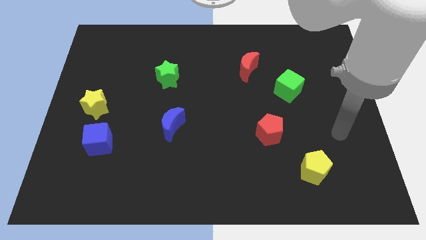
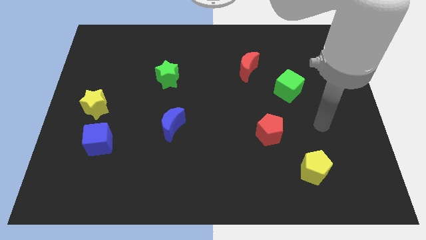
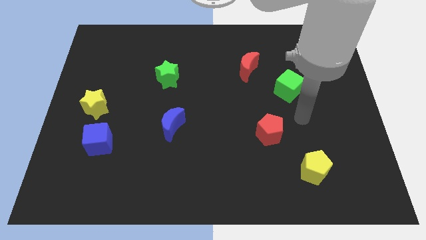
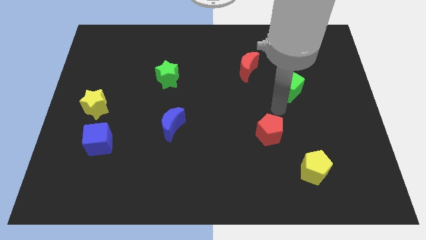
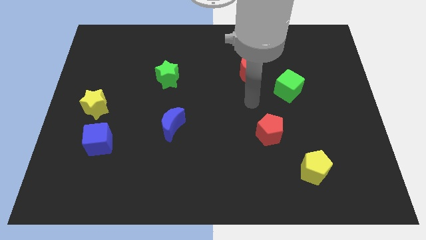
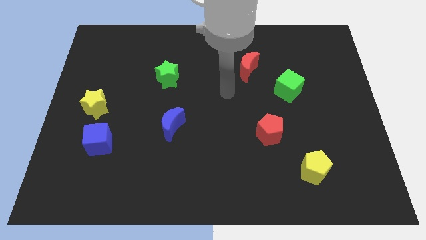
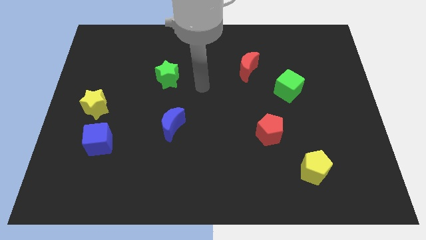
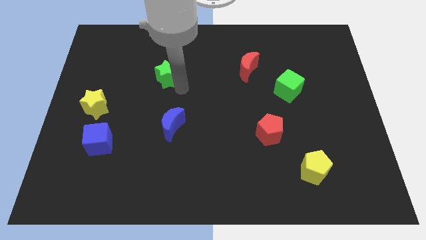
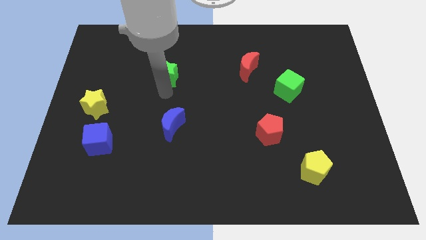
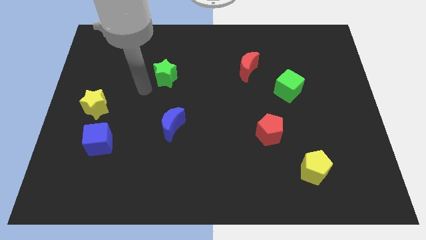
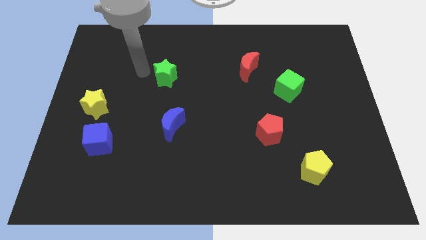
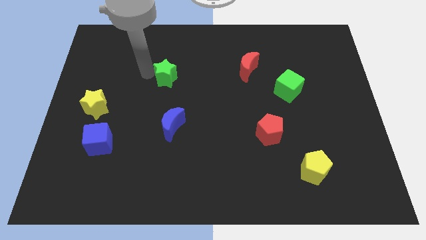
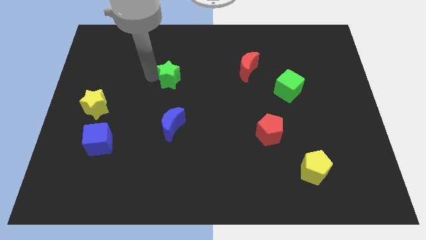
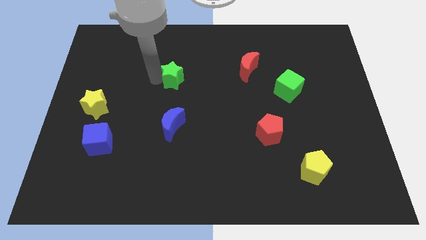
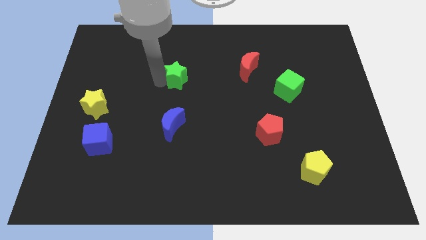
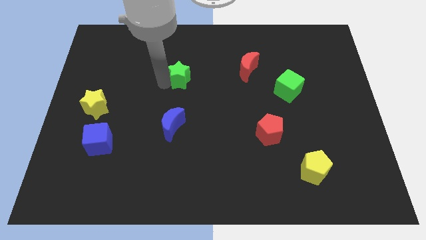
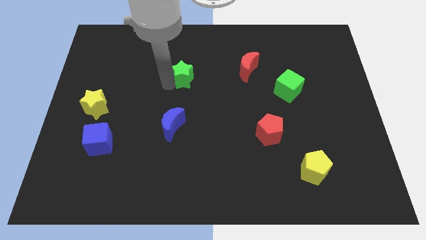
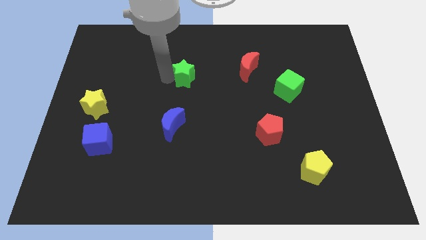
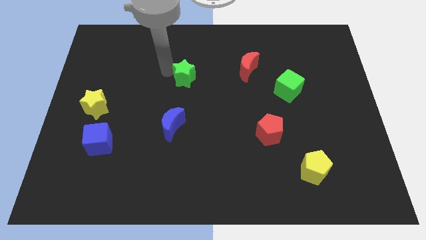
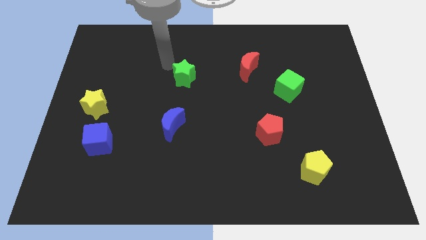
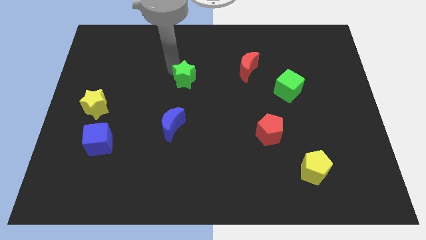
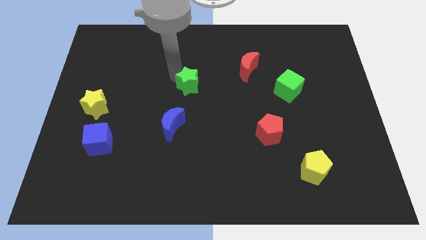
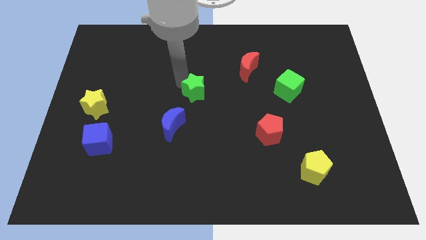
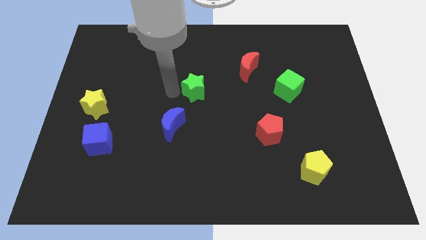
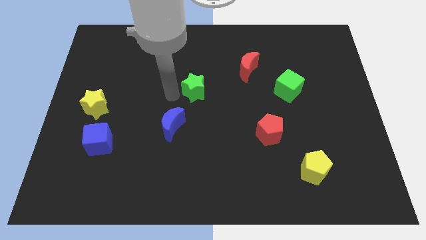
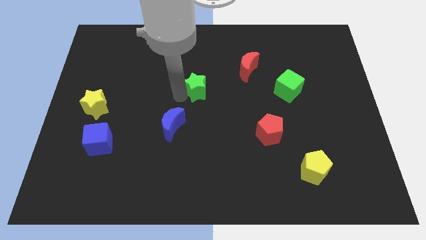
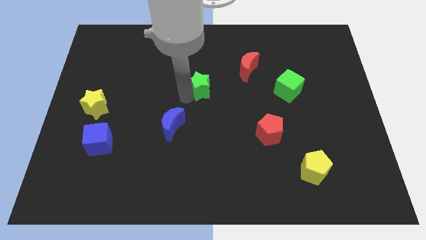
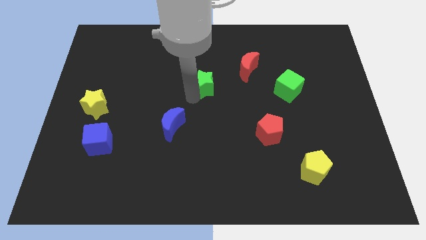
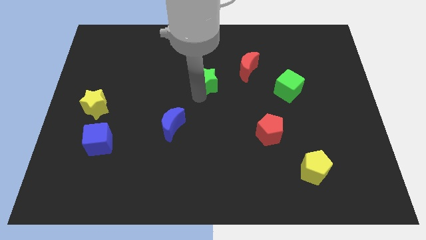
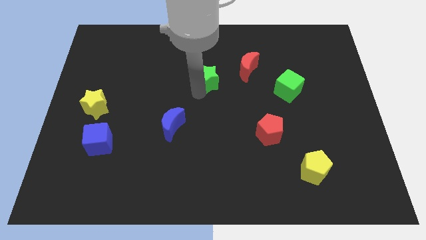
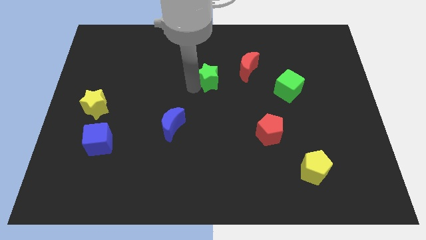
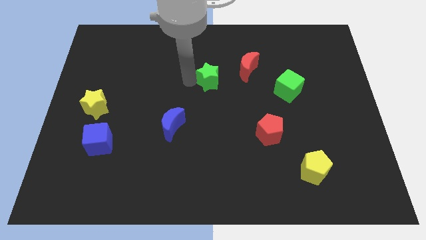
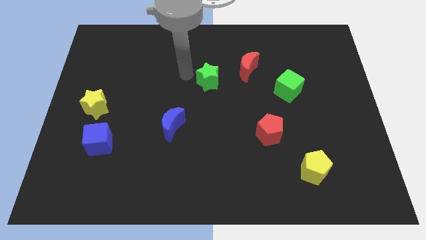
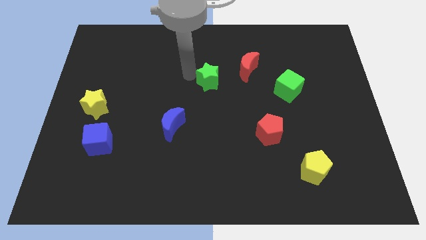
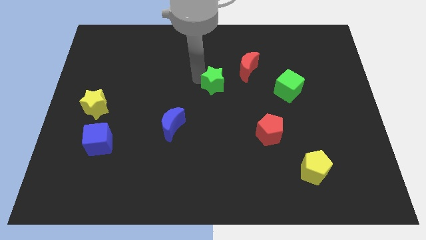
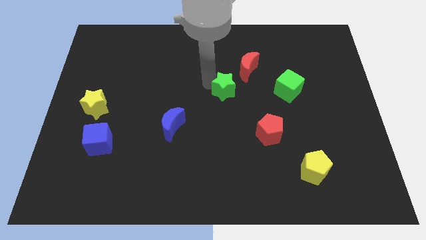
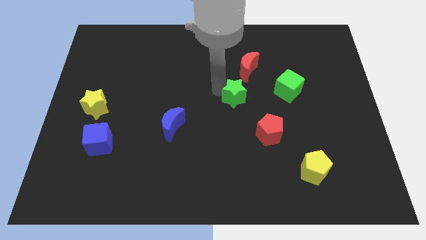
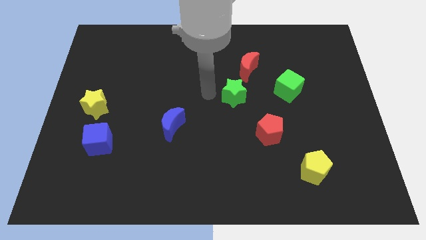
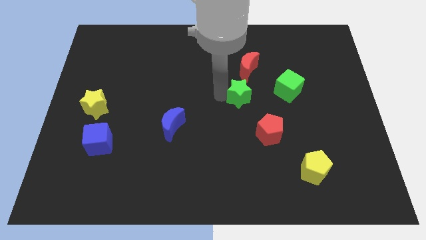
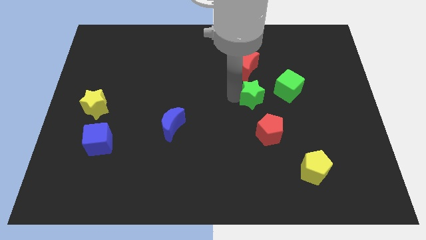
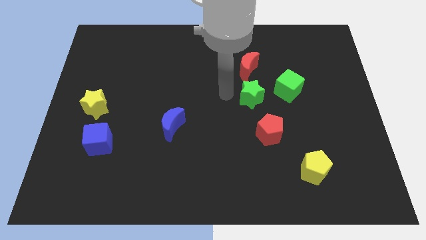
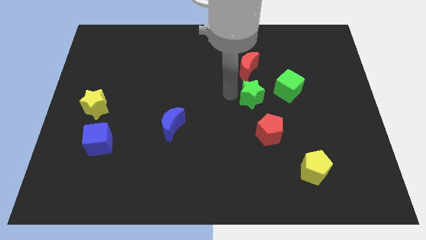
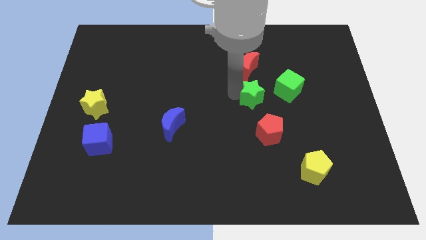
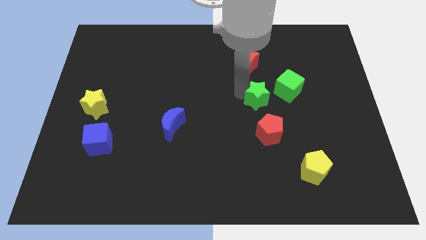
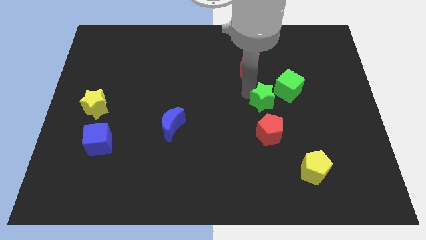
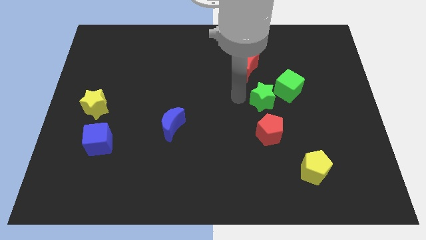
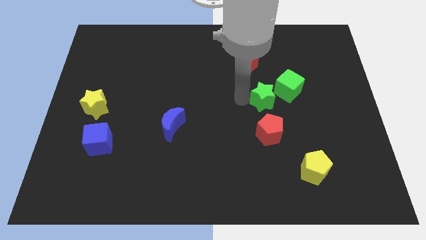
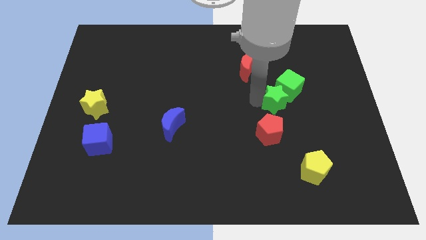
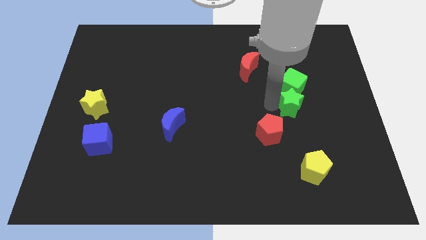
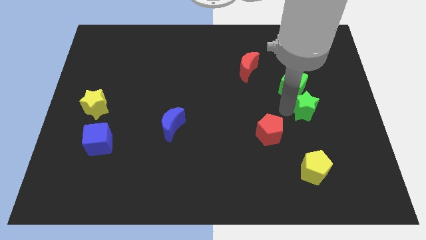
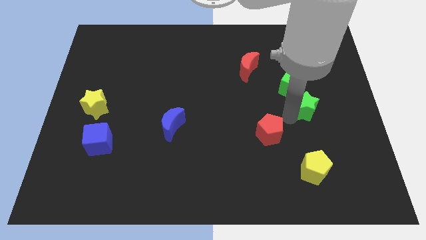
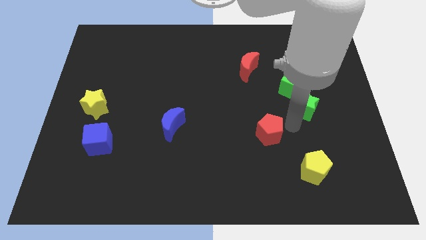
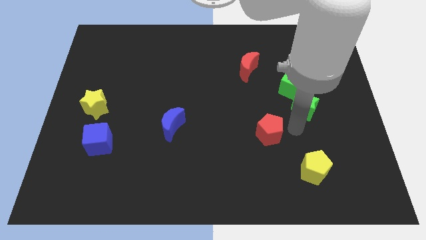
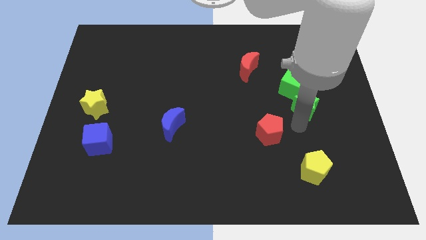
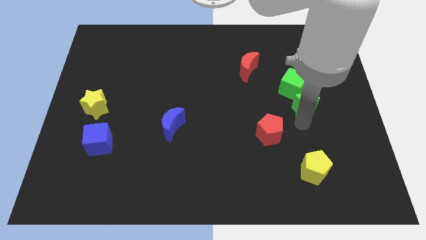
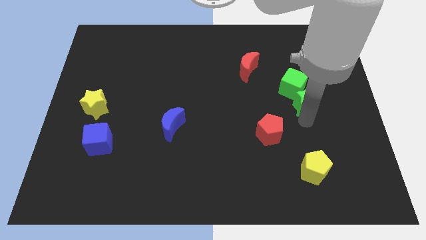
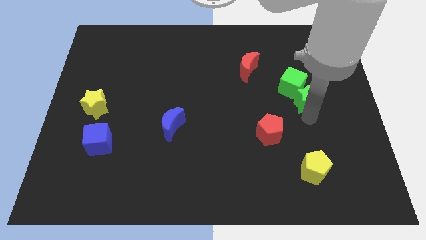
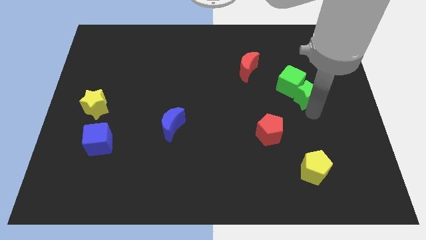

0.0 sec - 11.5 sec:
move the green star to the right of the green cube

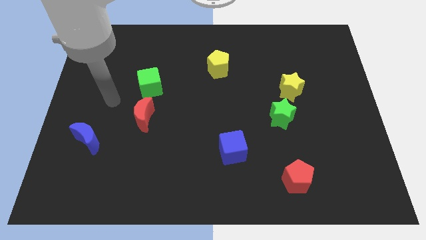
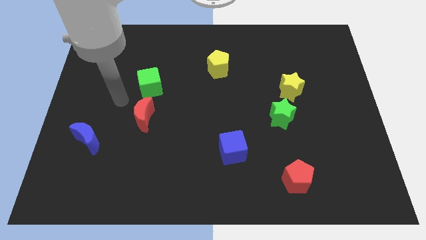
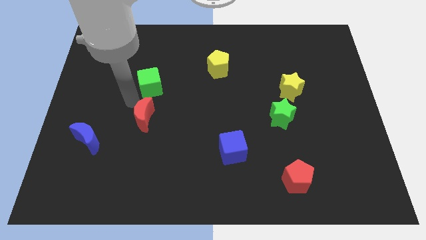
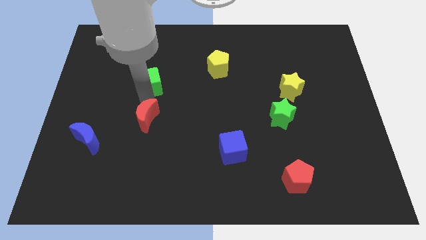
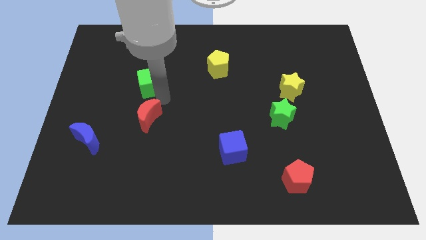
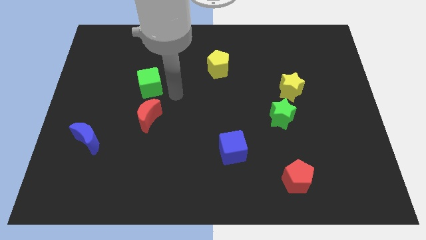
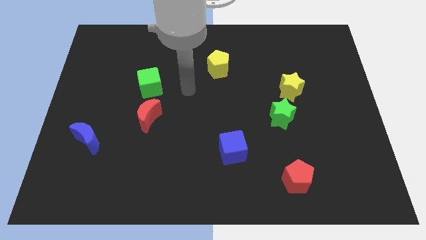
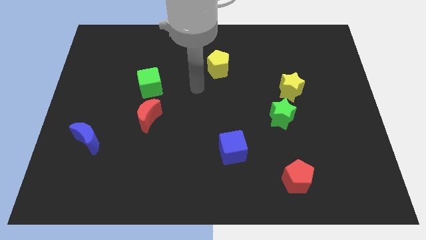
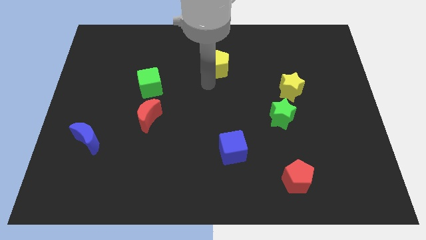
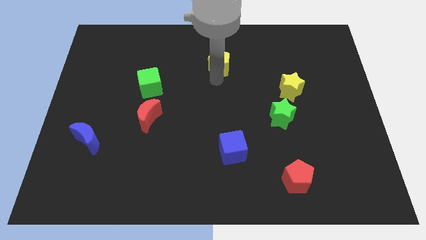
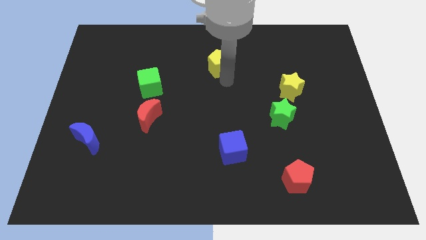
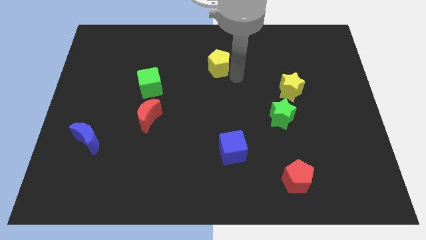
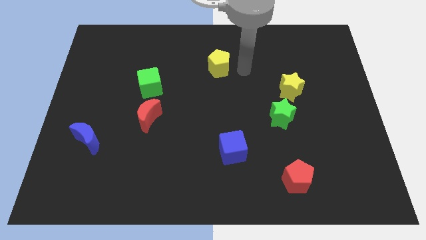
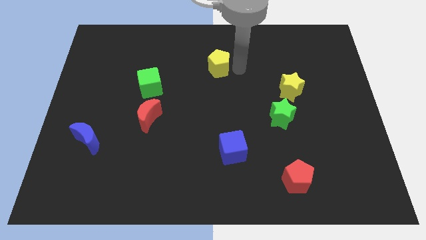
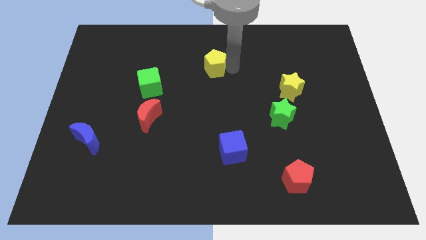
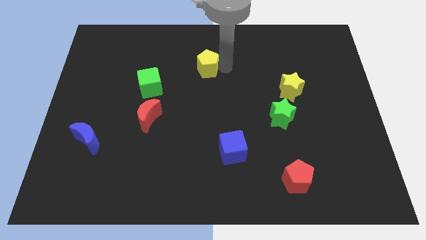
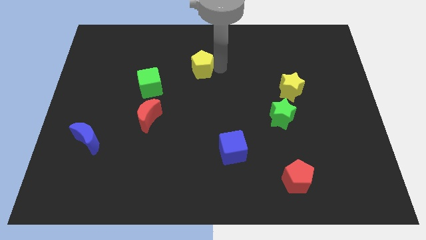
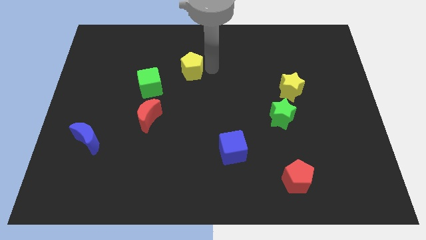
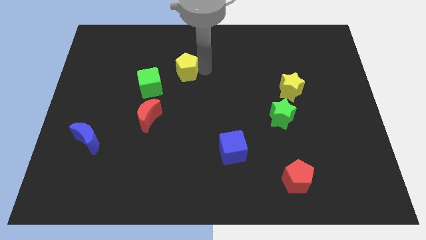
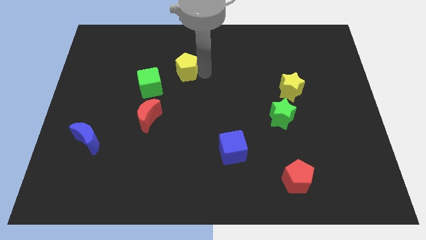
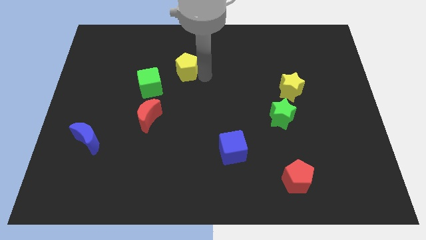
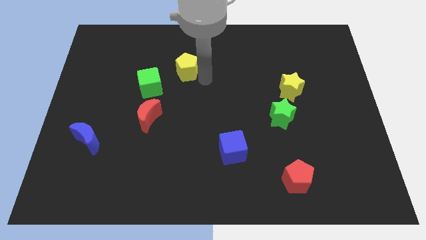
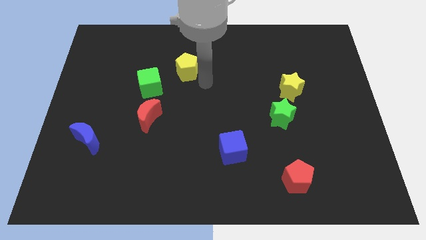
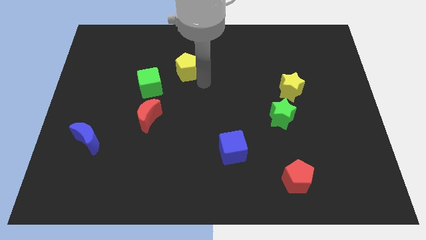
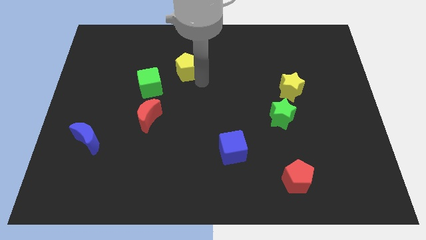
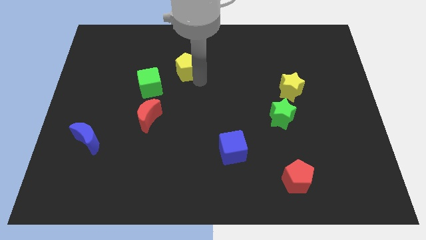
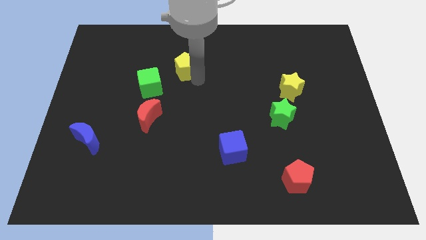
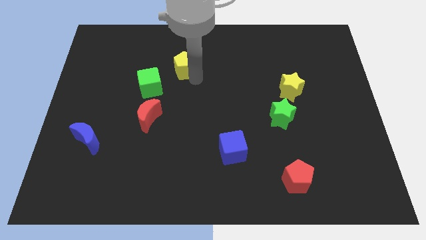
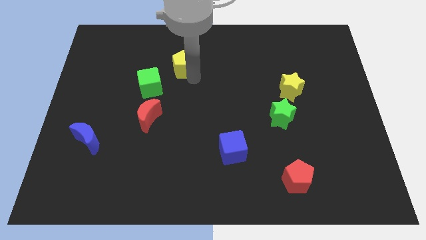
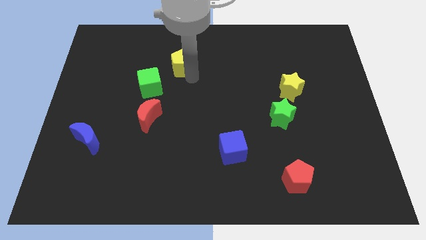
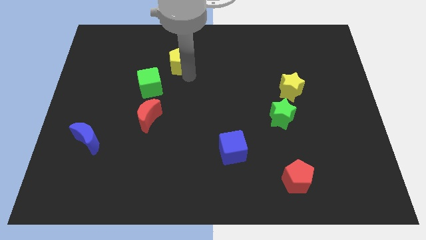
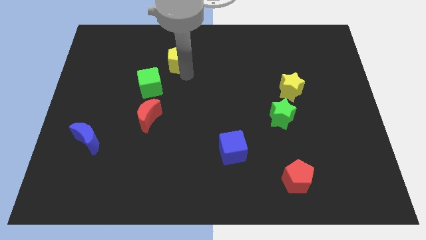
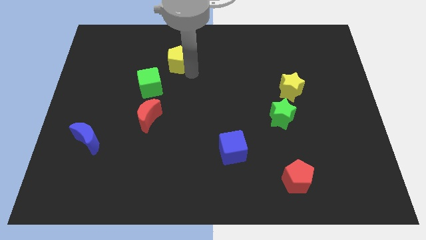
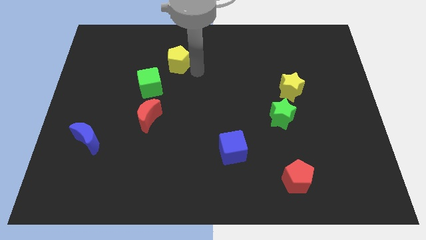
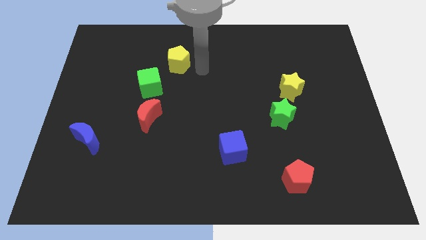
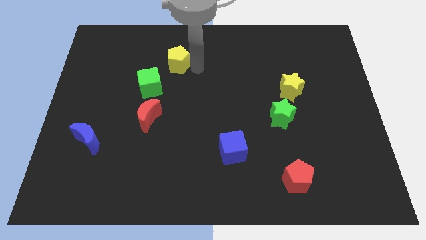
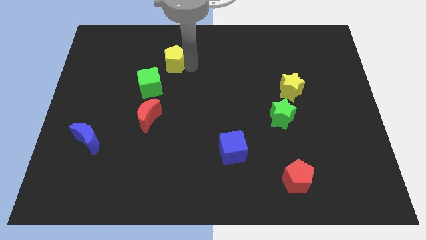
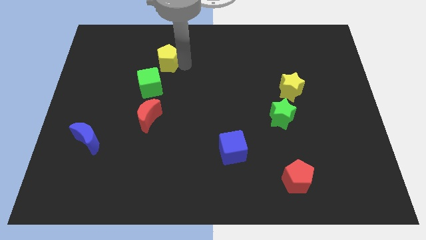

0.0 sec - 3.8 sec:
push the yellow pentagon to the top of the green cube
